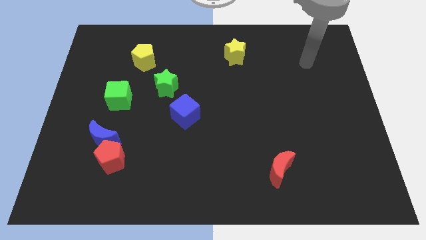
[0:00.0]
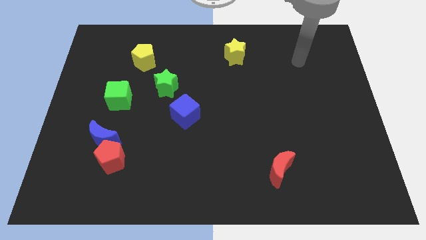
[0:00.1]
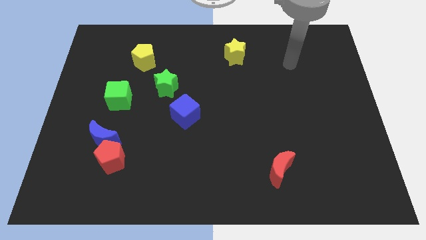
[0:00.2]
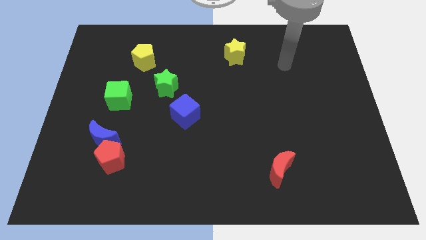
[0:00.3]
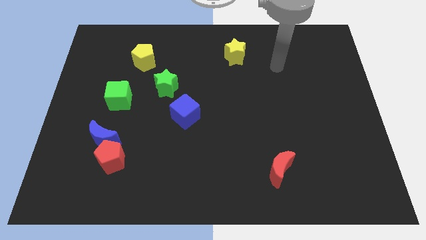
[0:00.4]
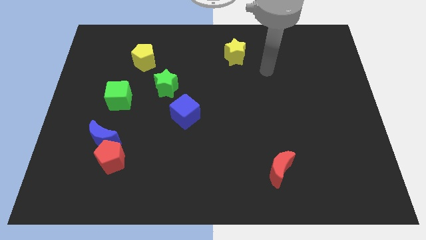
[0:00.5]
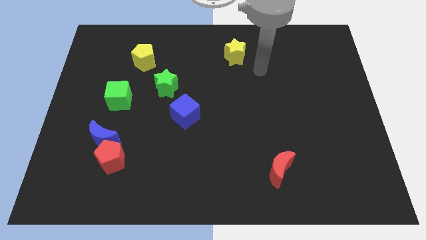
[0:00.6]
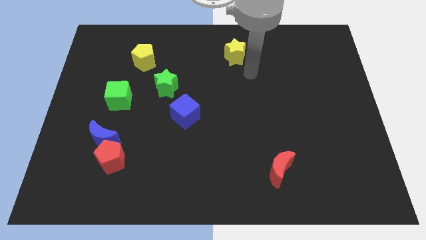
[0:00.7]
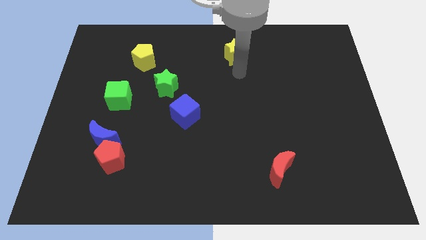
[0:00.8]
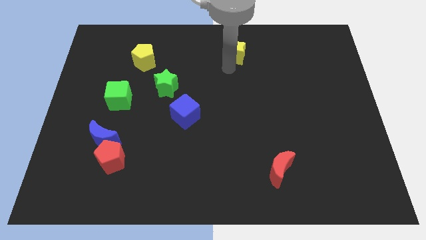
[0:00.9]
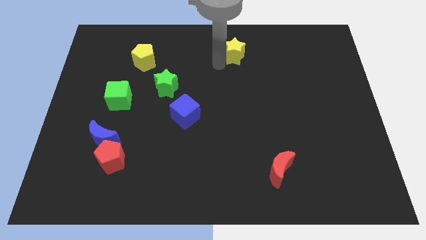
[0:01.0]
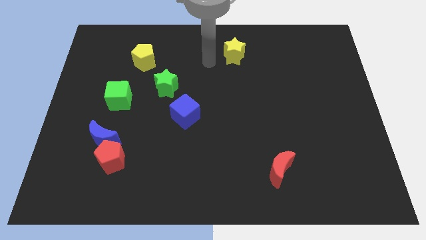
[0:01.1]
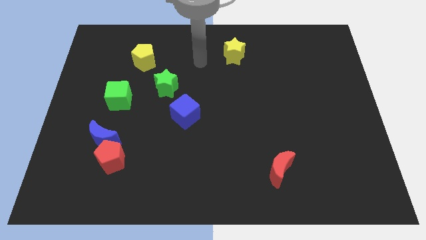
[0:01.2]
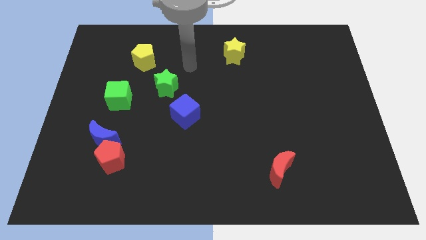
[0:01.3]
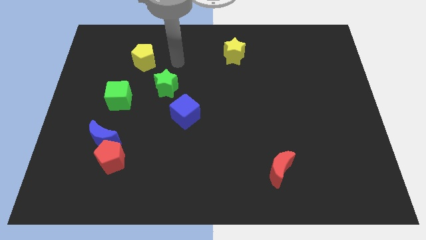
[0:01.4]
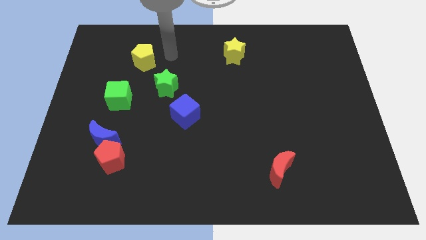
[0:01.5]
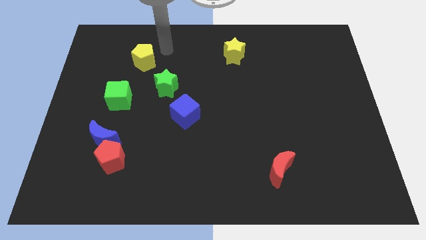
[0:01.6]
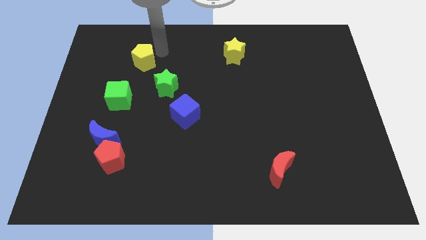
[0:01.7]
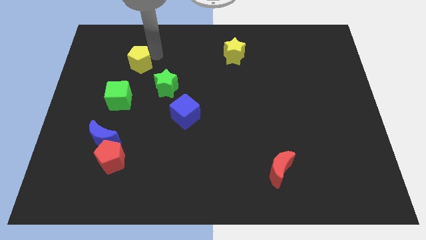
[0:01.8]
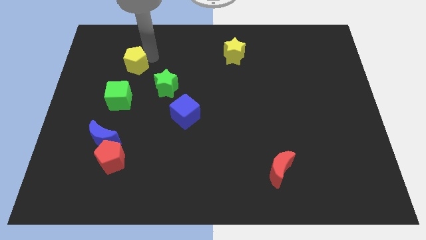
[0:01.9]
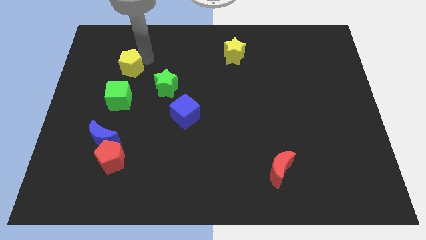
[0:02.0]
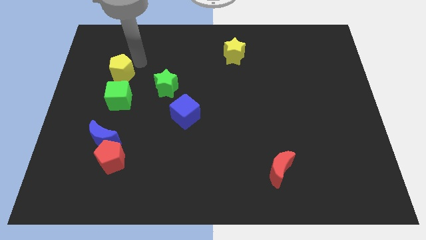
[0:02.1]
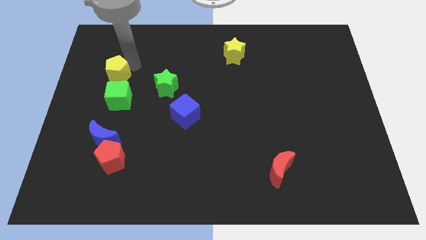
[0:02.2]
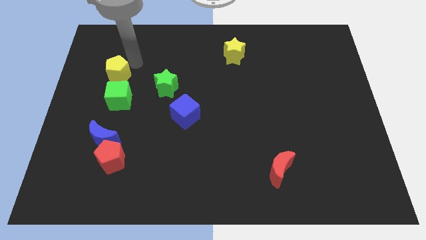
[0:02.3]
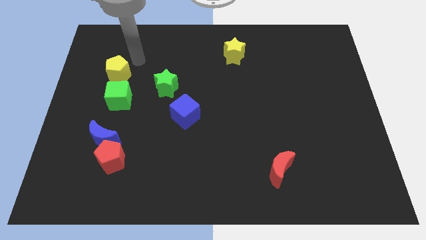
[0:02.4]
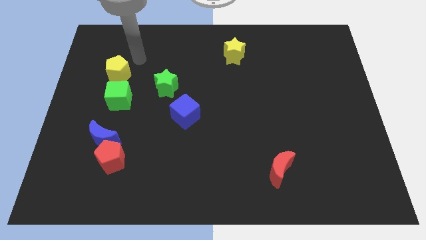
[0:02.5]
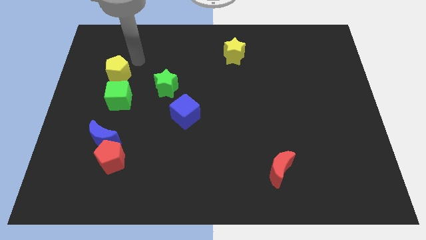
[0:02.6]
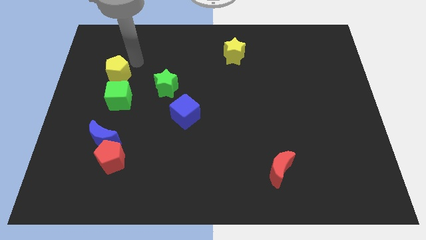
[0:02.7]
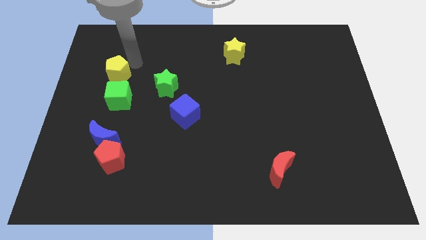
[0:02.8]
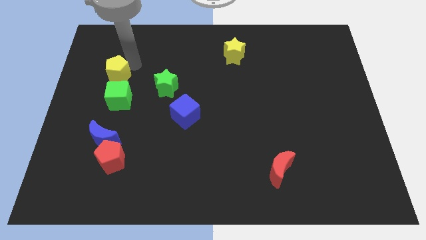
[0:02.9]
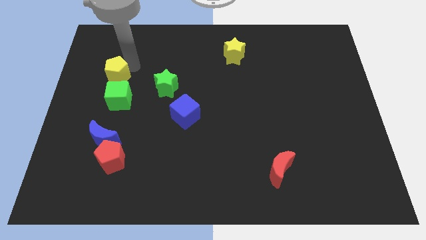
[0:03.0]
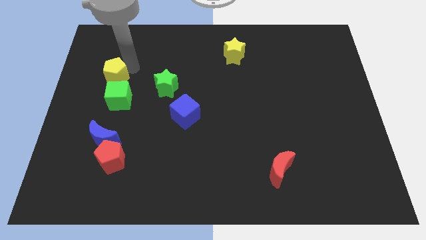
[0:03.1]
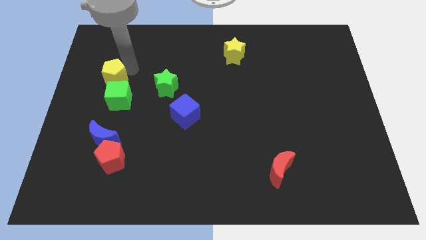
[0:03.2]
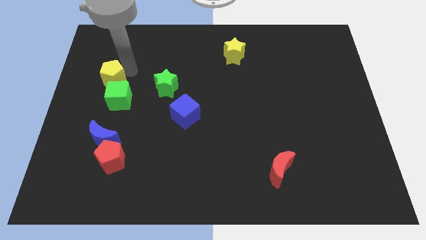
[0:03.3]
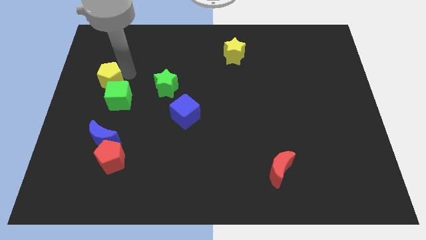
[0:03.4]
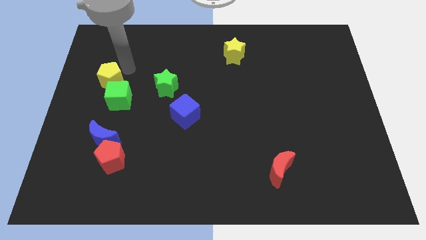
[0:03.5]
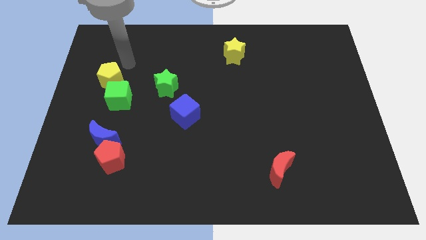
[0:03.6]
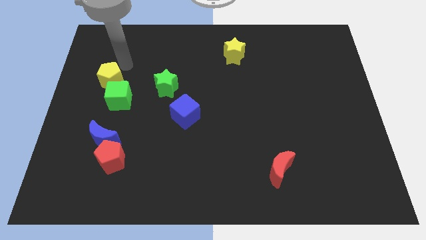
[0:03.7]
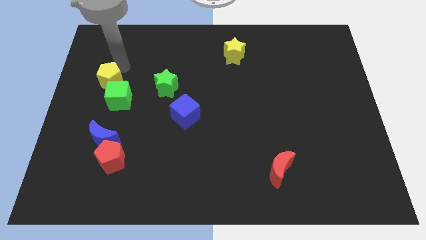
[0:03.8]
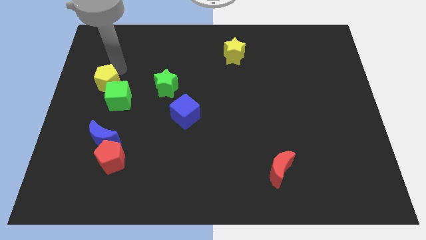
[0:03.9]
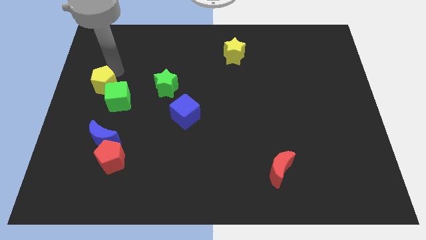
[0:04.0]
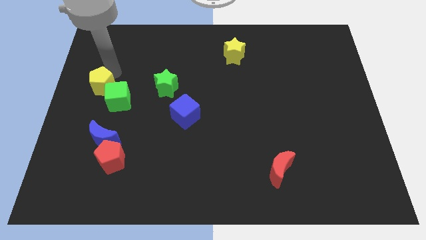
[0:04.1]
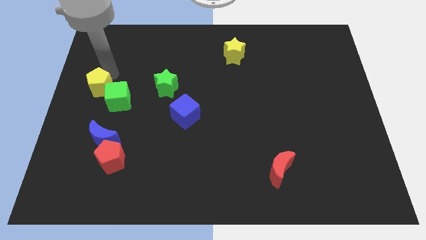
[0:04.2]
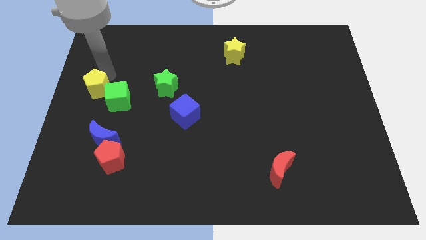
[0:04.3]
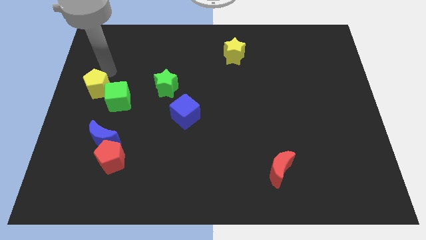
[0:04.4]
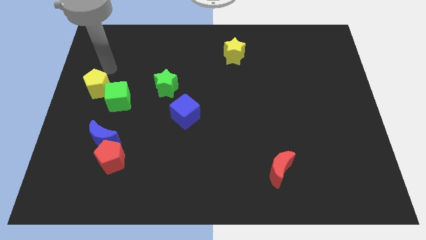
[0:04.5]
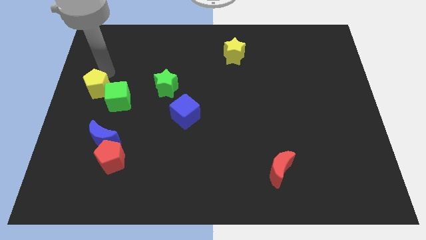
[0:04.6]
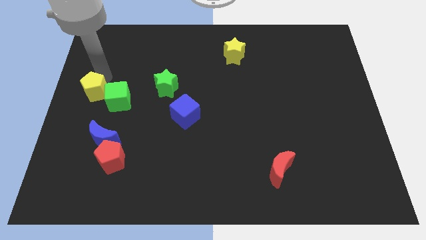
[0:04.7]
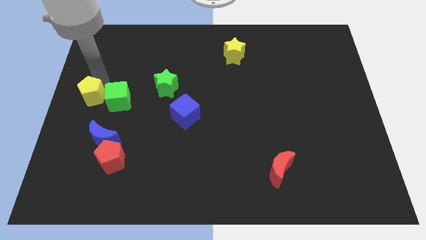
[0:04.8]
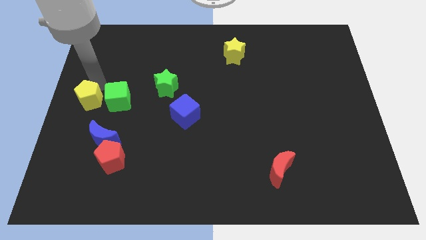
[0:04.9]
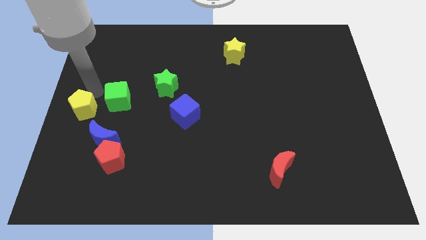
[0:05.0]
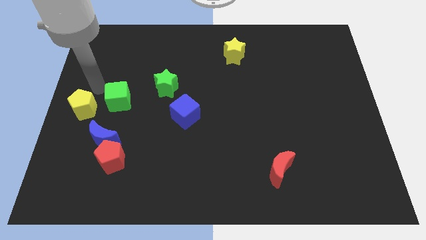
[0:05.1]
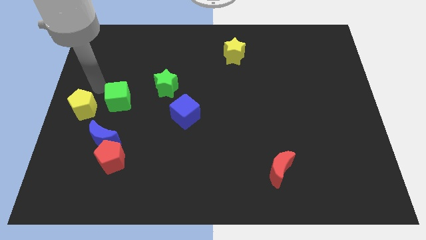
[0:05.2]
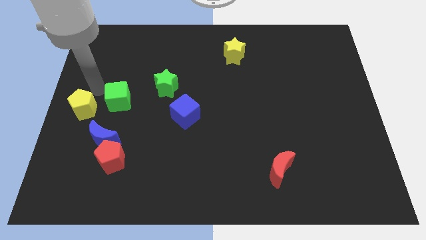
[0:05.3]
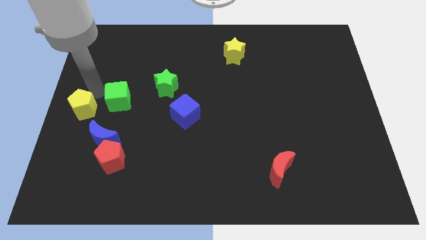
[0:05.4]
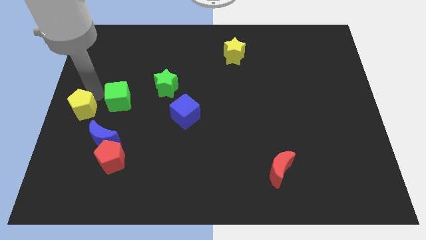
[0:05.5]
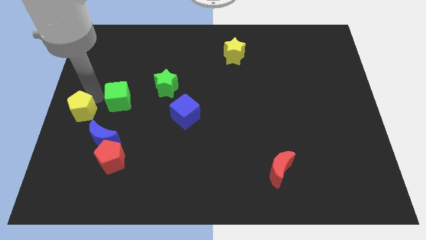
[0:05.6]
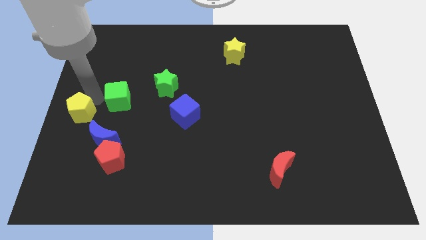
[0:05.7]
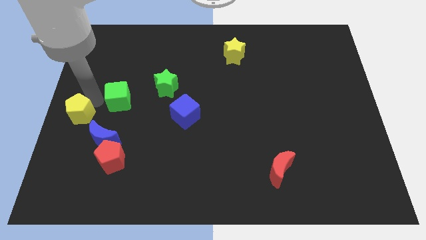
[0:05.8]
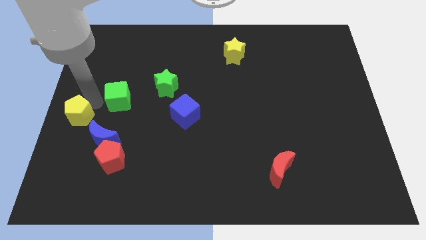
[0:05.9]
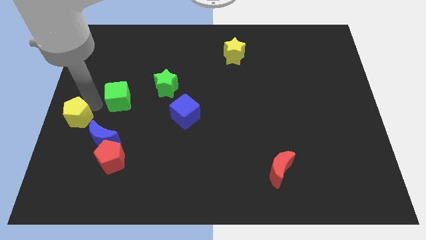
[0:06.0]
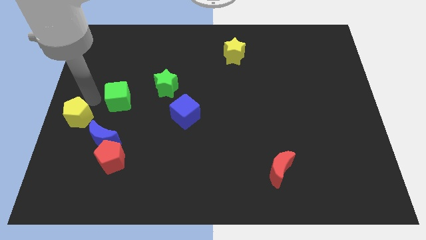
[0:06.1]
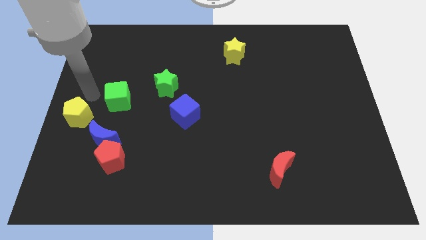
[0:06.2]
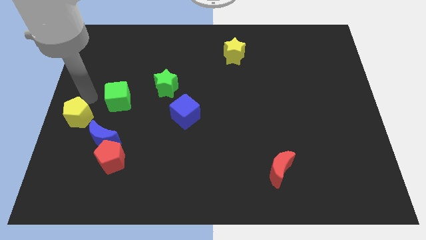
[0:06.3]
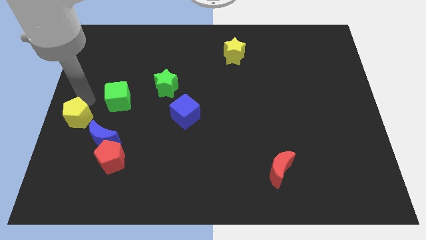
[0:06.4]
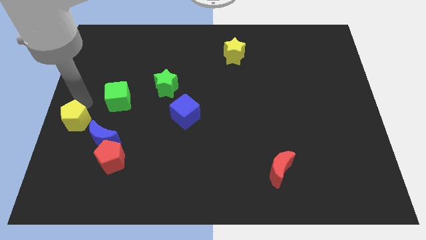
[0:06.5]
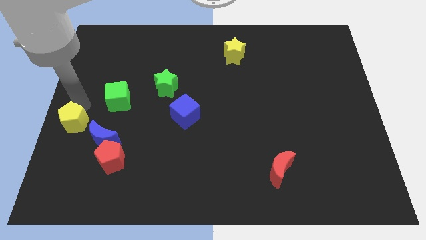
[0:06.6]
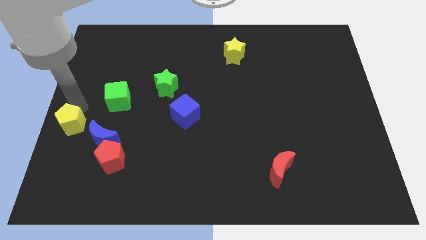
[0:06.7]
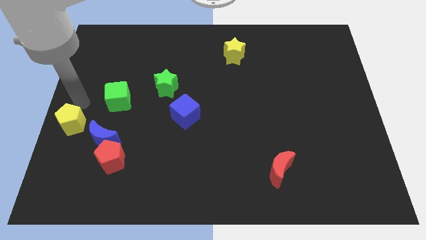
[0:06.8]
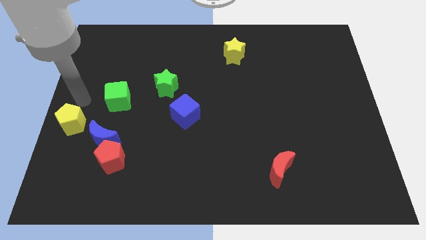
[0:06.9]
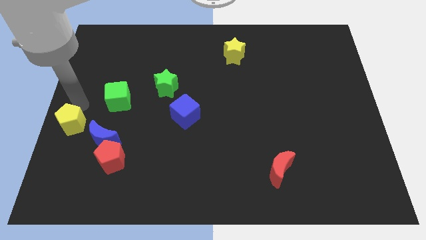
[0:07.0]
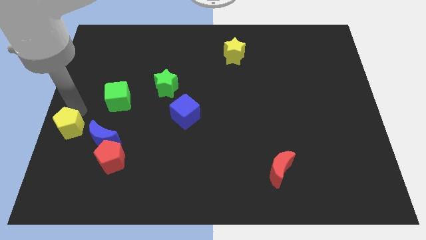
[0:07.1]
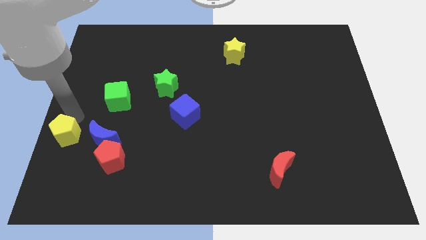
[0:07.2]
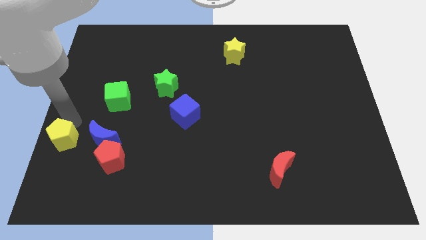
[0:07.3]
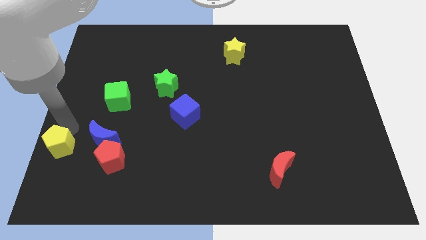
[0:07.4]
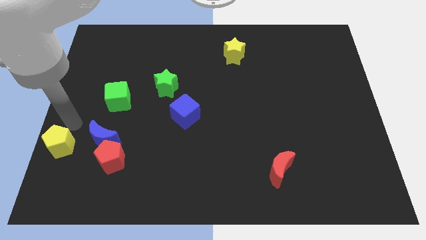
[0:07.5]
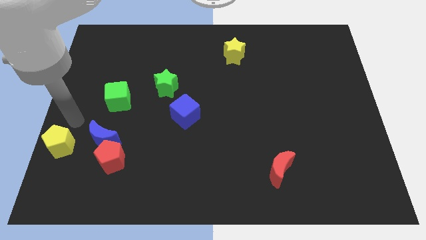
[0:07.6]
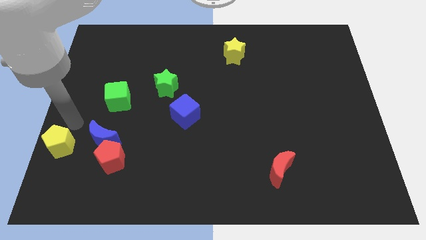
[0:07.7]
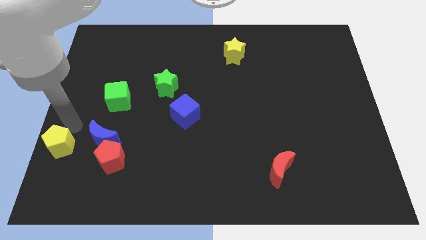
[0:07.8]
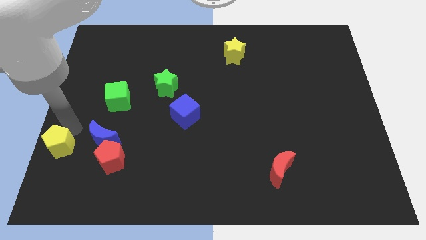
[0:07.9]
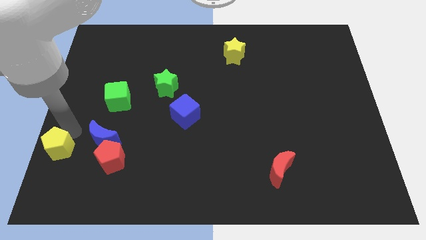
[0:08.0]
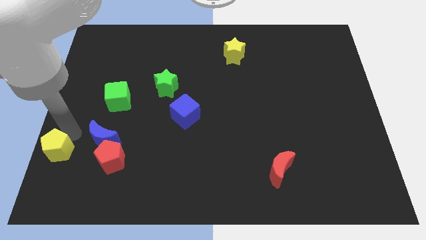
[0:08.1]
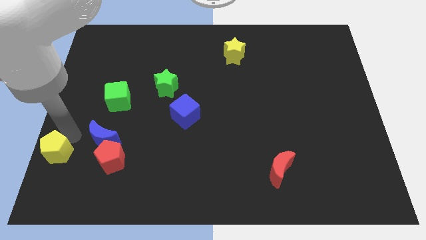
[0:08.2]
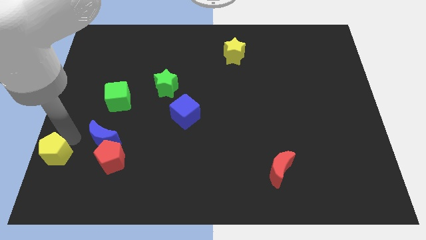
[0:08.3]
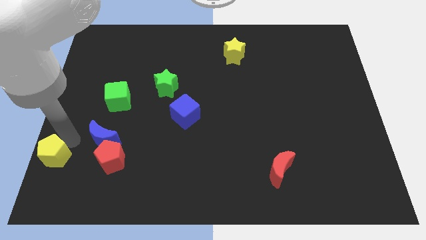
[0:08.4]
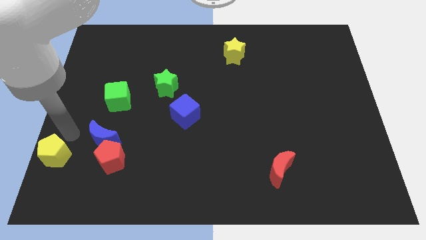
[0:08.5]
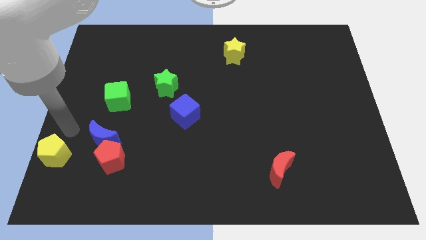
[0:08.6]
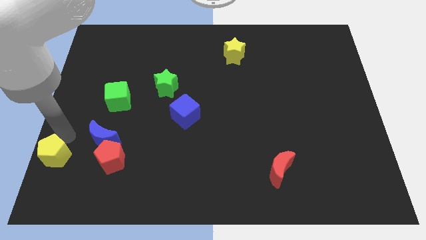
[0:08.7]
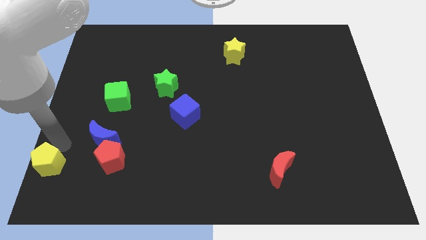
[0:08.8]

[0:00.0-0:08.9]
move the yellow pentagon to the bottom left
